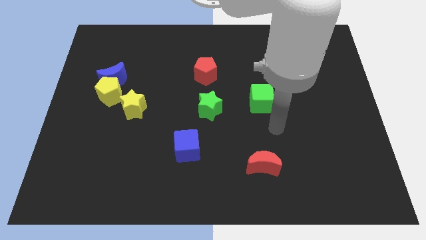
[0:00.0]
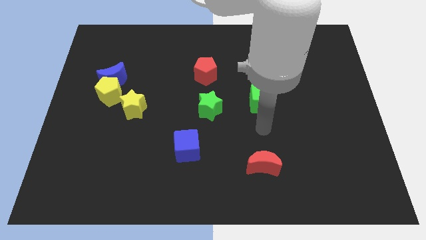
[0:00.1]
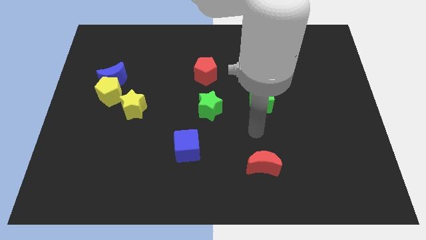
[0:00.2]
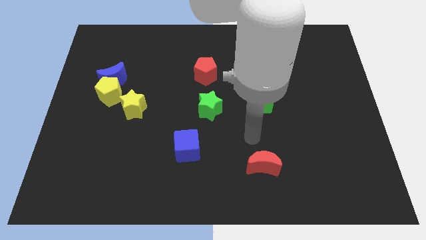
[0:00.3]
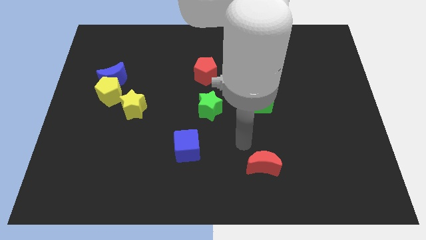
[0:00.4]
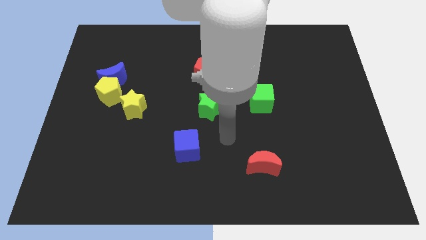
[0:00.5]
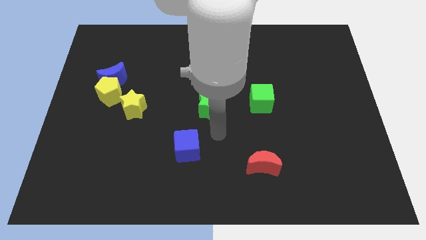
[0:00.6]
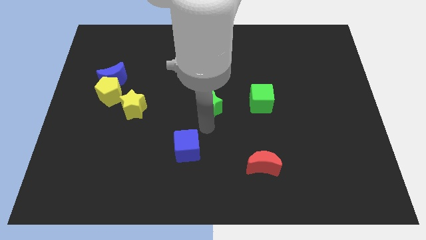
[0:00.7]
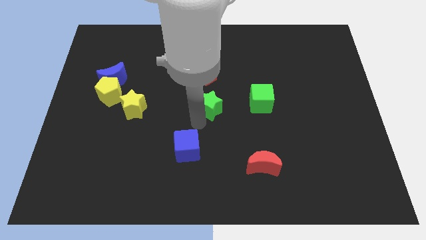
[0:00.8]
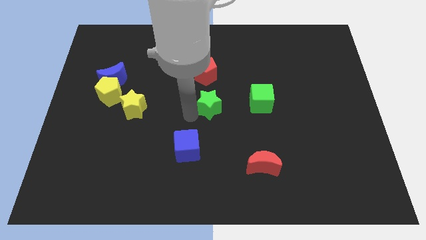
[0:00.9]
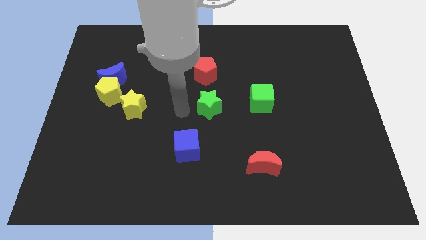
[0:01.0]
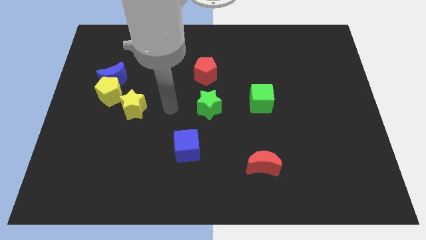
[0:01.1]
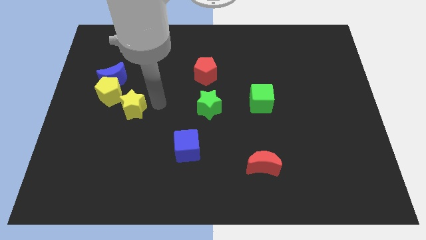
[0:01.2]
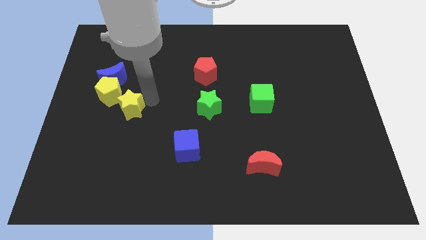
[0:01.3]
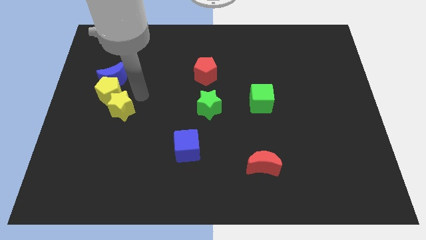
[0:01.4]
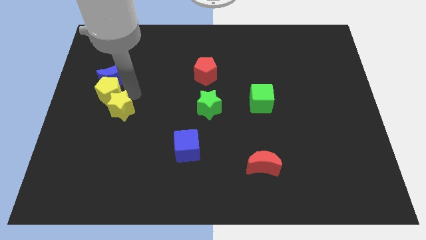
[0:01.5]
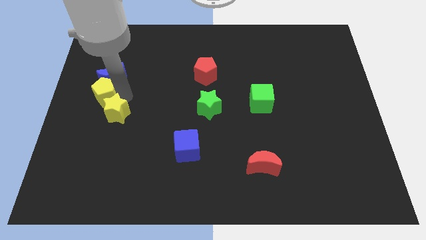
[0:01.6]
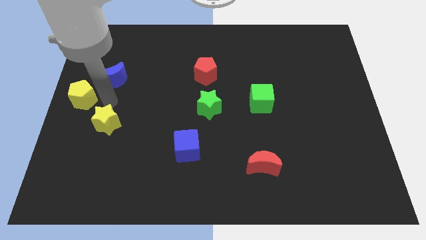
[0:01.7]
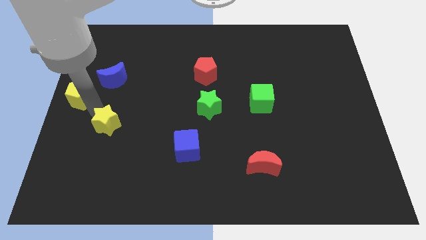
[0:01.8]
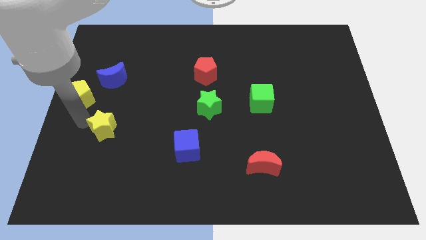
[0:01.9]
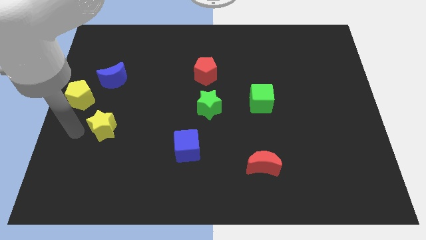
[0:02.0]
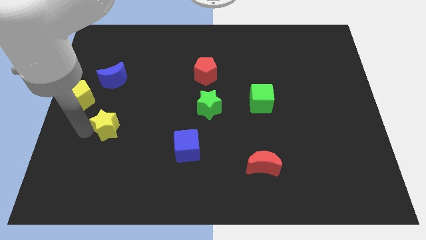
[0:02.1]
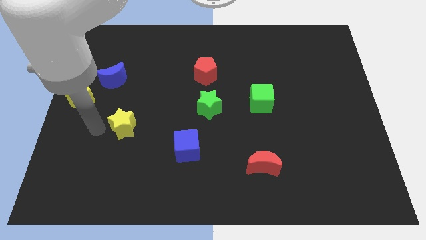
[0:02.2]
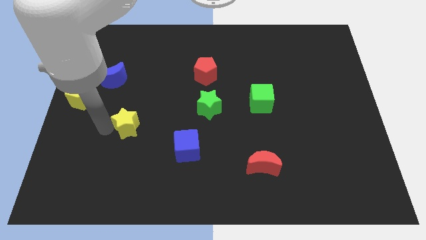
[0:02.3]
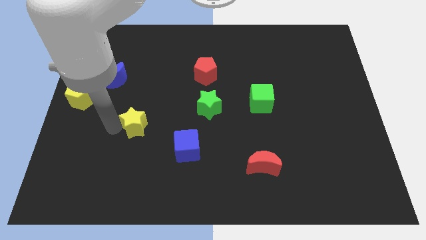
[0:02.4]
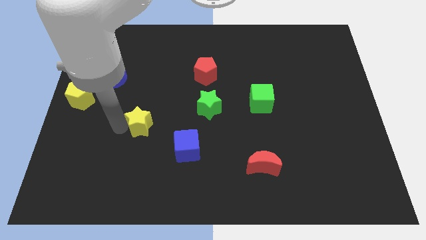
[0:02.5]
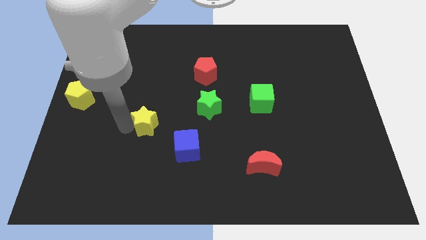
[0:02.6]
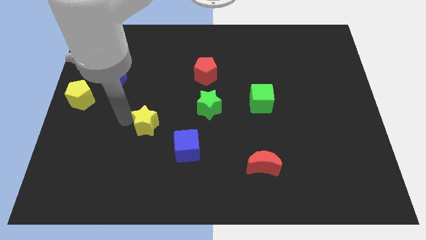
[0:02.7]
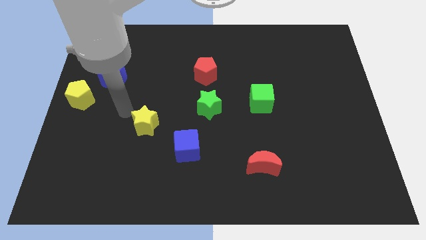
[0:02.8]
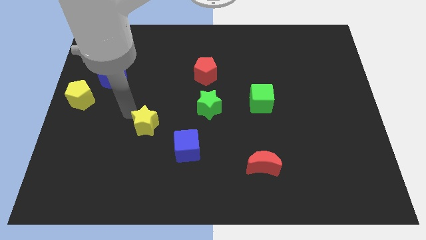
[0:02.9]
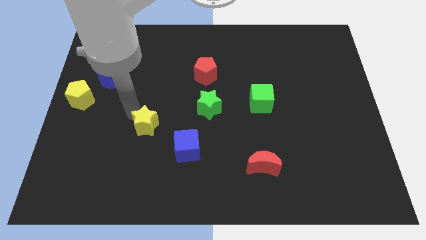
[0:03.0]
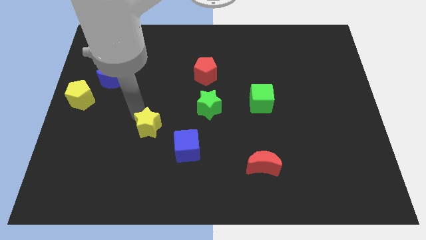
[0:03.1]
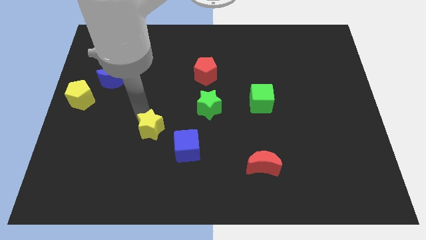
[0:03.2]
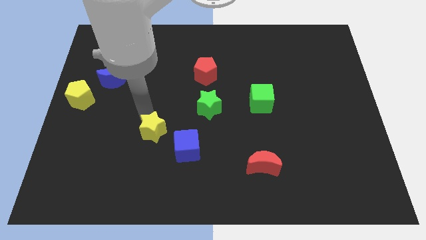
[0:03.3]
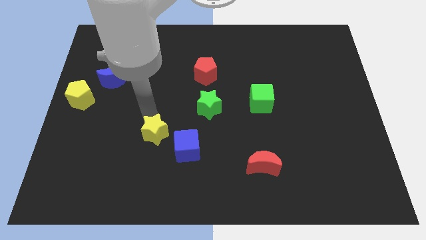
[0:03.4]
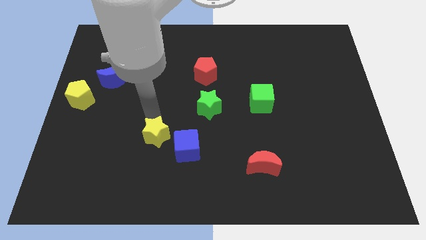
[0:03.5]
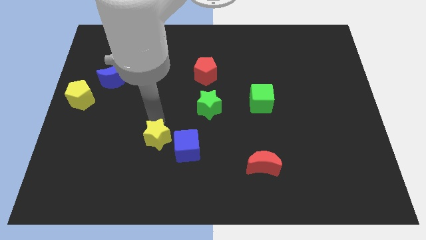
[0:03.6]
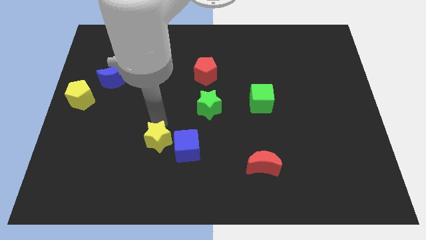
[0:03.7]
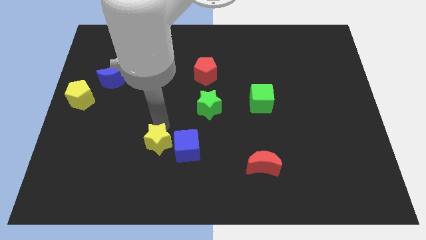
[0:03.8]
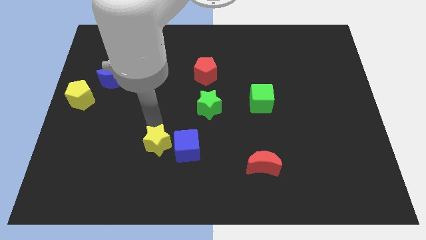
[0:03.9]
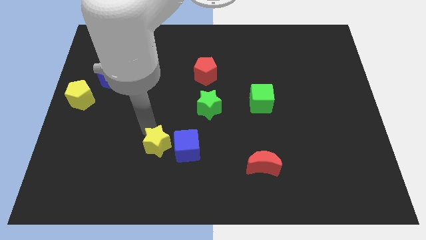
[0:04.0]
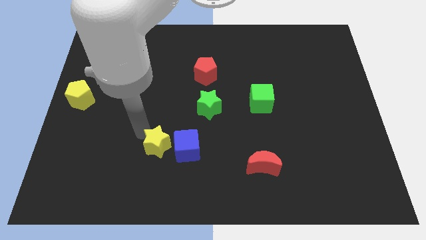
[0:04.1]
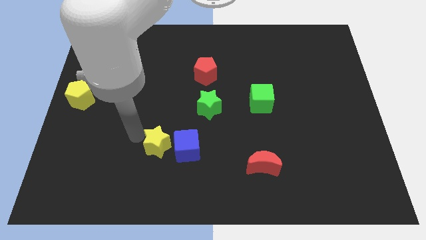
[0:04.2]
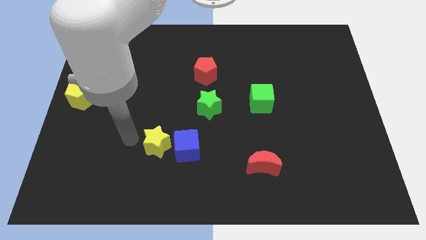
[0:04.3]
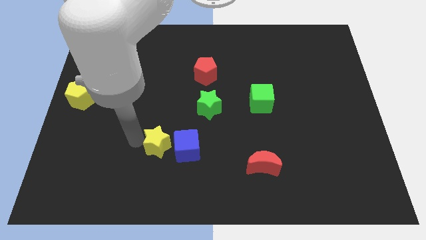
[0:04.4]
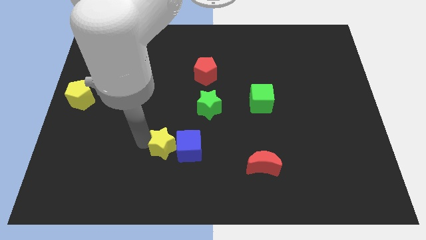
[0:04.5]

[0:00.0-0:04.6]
slide the yellow star next to the blue cube

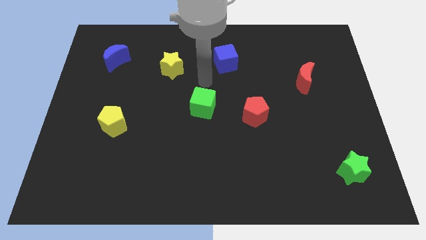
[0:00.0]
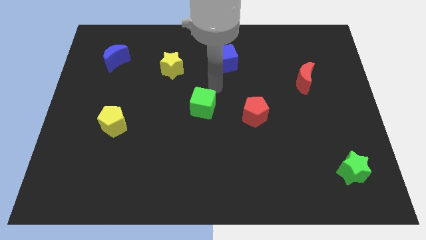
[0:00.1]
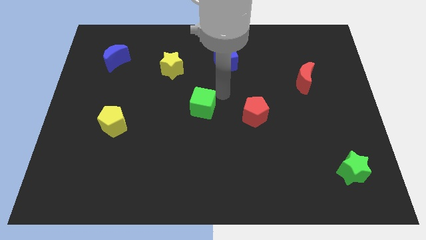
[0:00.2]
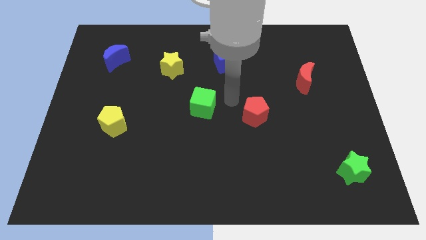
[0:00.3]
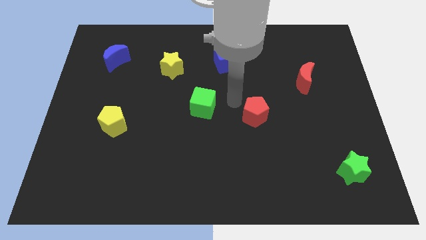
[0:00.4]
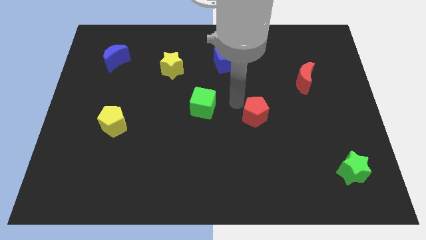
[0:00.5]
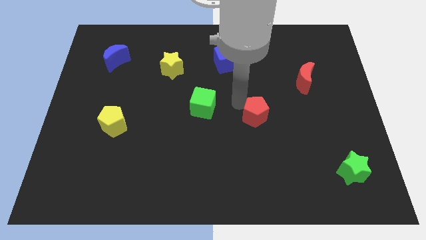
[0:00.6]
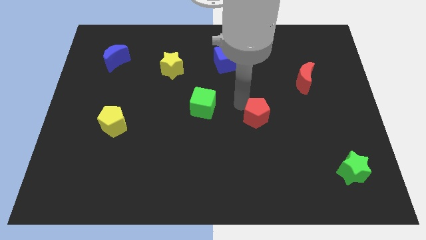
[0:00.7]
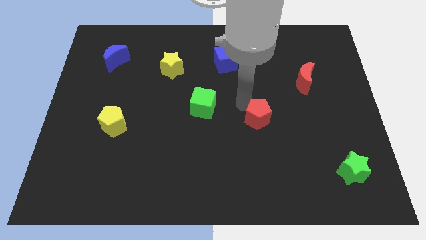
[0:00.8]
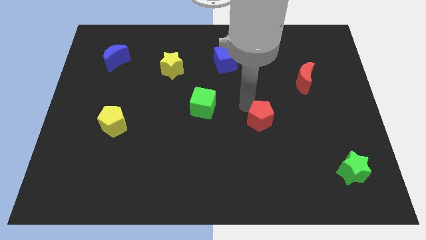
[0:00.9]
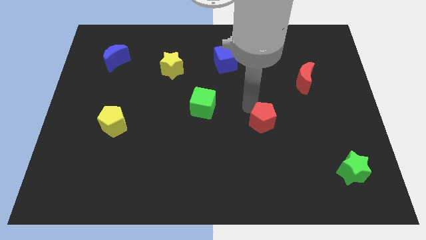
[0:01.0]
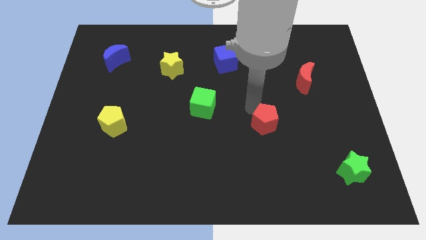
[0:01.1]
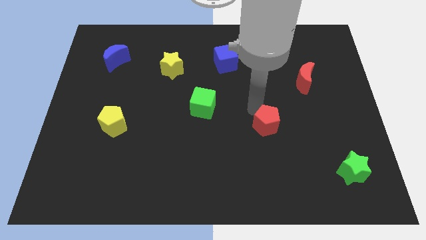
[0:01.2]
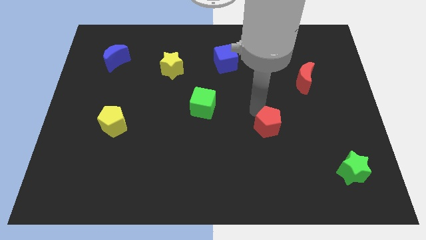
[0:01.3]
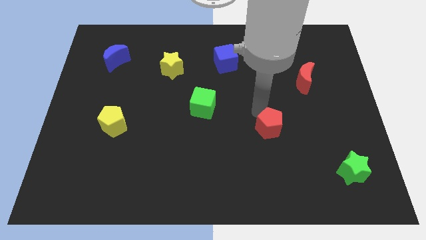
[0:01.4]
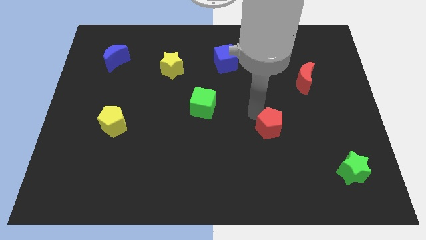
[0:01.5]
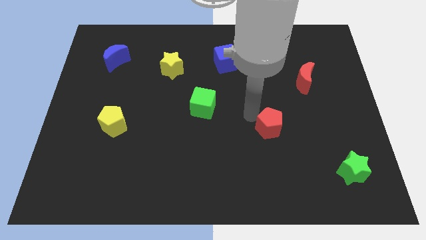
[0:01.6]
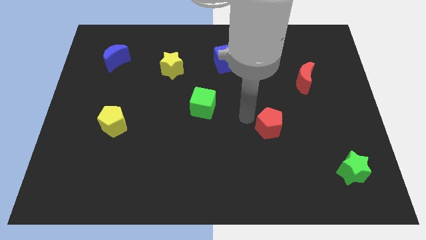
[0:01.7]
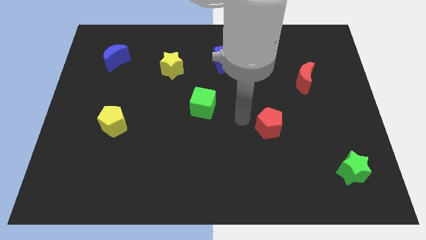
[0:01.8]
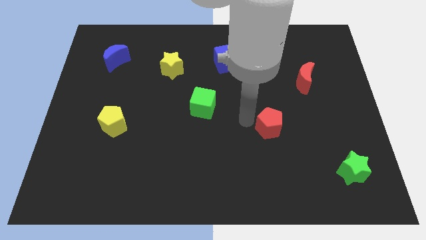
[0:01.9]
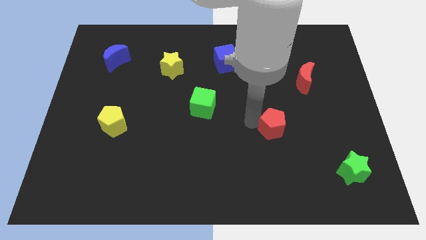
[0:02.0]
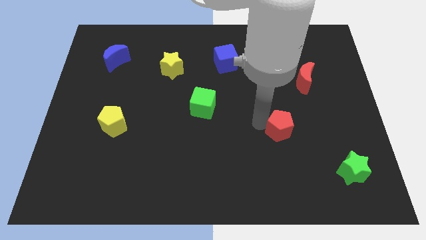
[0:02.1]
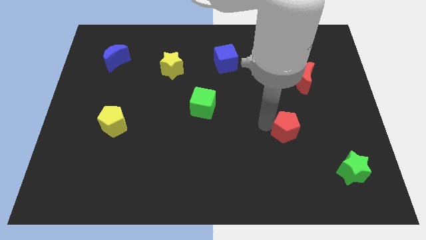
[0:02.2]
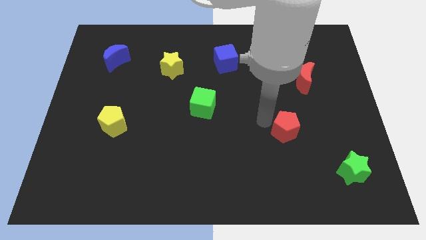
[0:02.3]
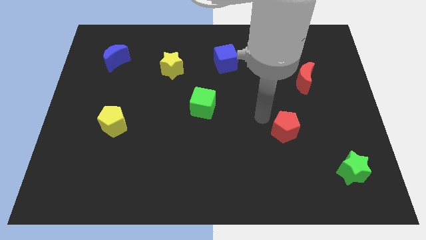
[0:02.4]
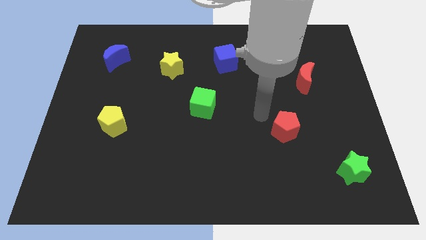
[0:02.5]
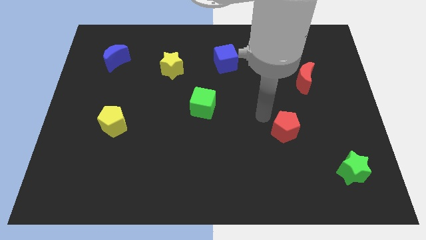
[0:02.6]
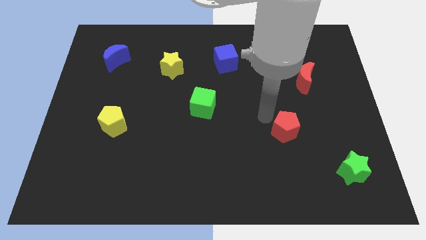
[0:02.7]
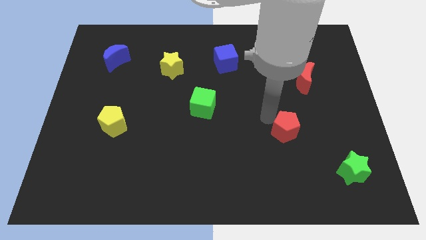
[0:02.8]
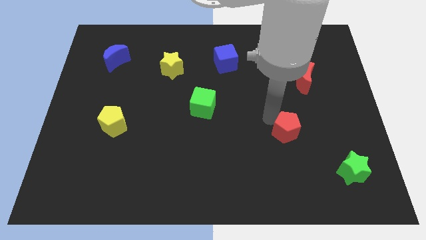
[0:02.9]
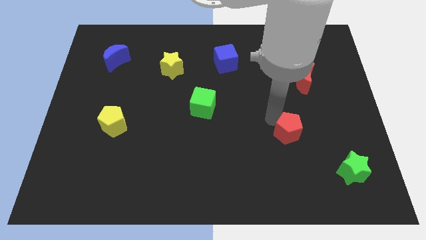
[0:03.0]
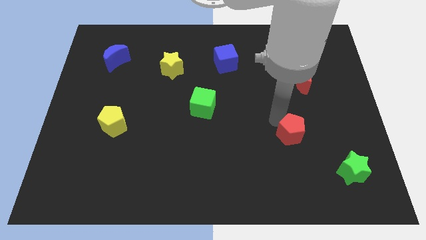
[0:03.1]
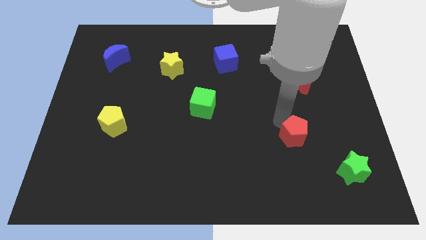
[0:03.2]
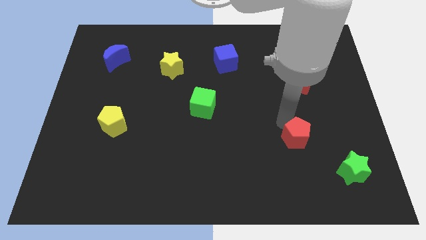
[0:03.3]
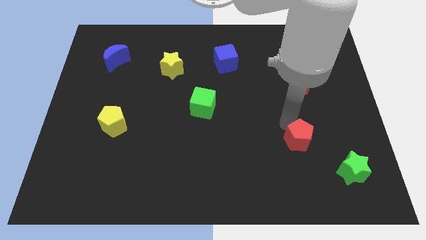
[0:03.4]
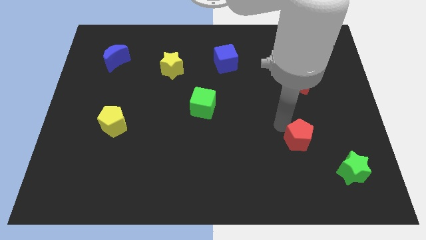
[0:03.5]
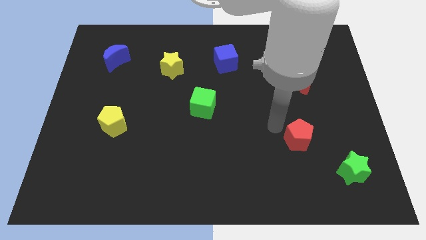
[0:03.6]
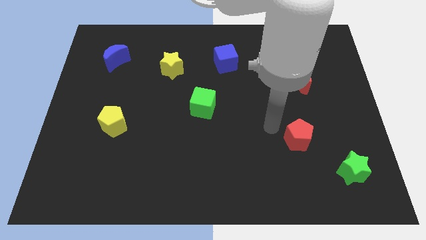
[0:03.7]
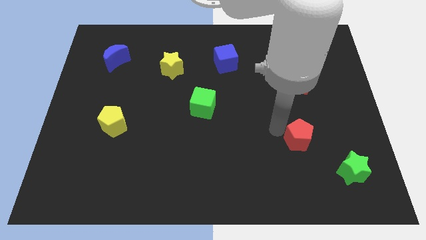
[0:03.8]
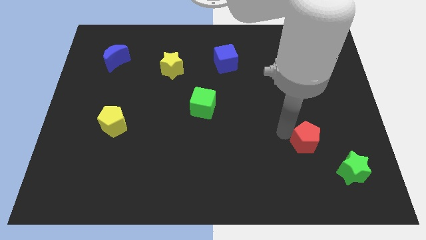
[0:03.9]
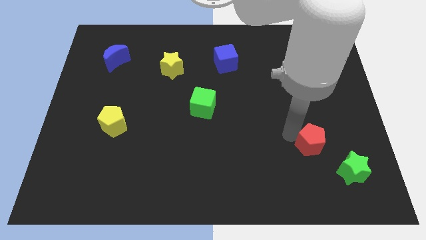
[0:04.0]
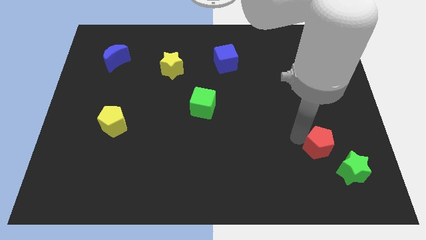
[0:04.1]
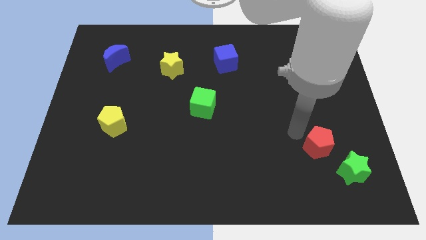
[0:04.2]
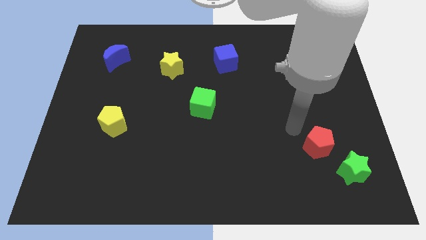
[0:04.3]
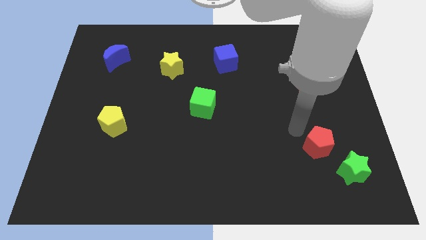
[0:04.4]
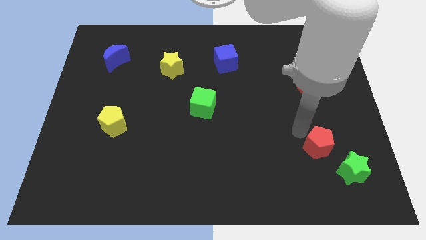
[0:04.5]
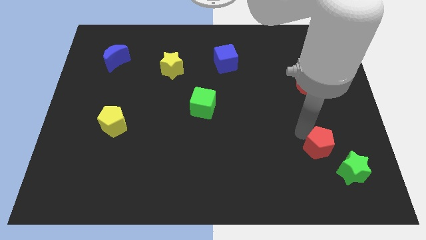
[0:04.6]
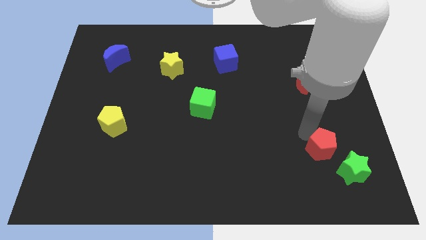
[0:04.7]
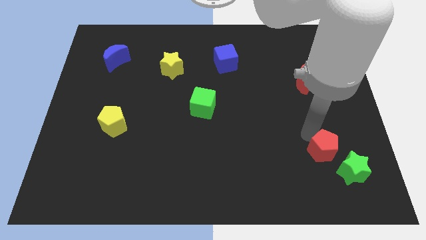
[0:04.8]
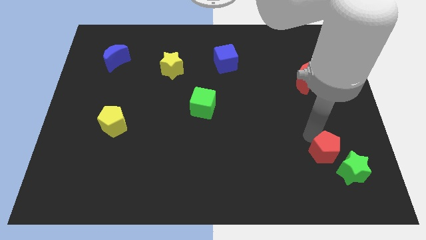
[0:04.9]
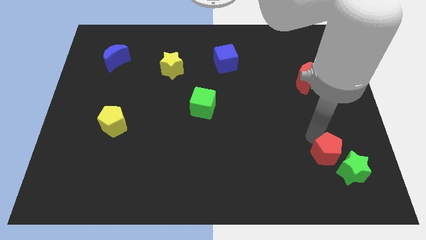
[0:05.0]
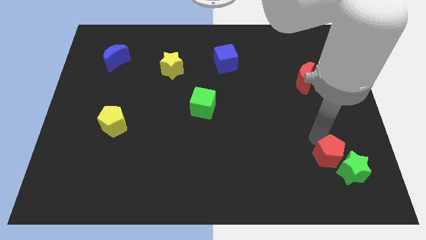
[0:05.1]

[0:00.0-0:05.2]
push the red pentagon close to the green star
